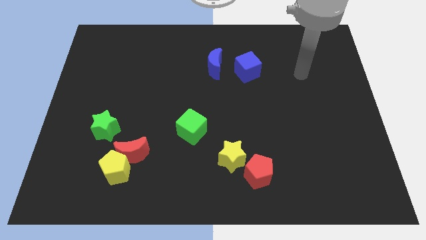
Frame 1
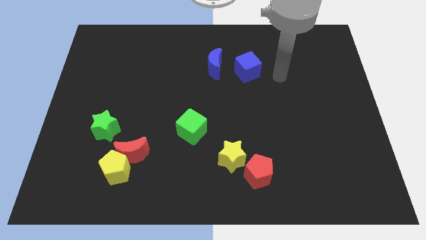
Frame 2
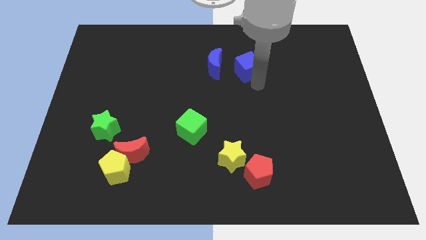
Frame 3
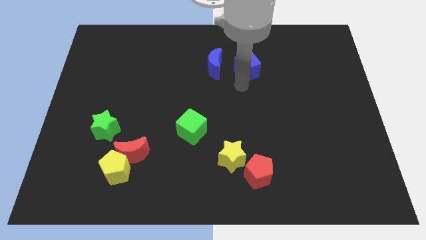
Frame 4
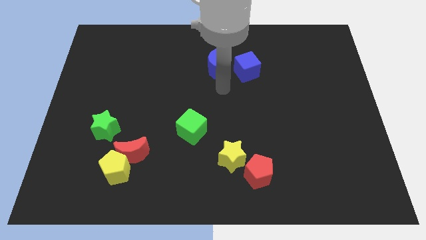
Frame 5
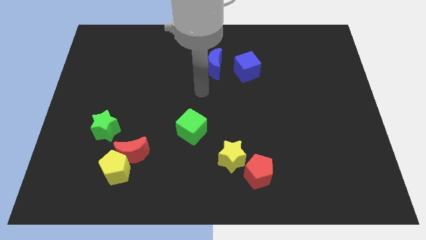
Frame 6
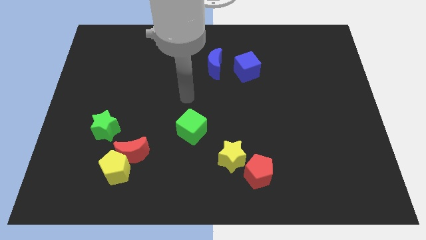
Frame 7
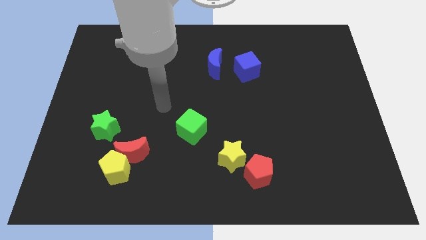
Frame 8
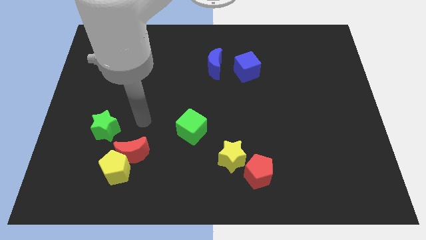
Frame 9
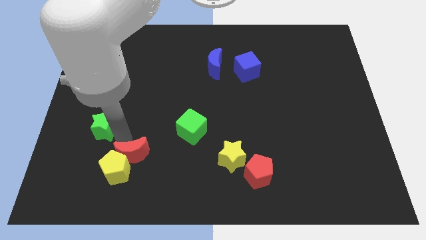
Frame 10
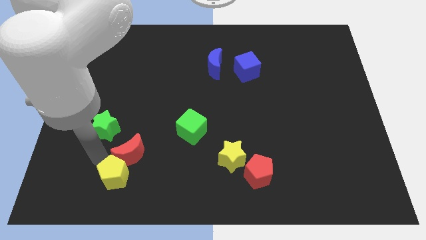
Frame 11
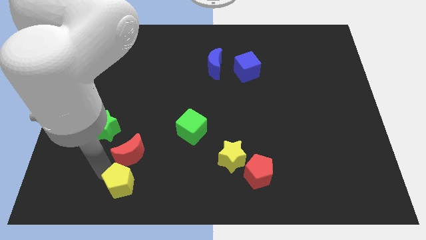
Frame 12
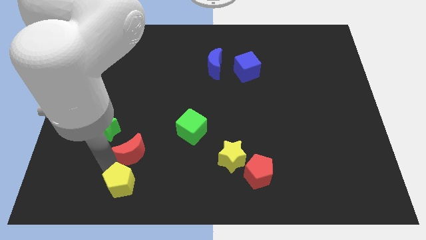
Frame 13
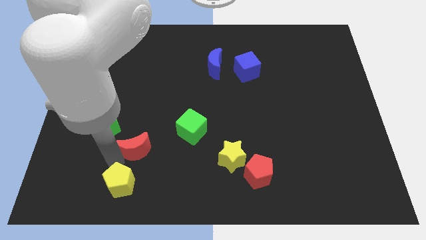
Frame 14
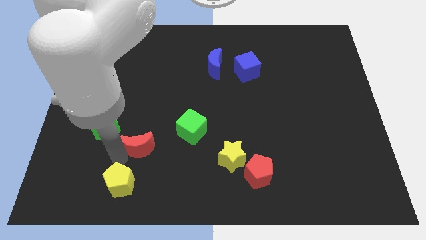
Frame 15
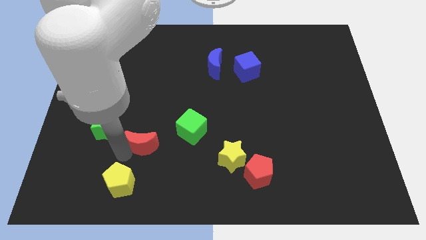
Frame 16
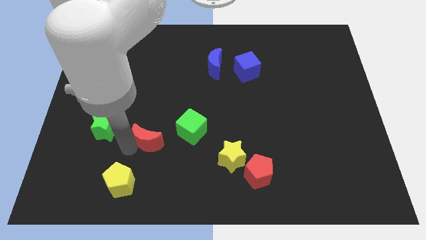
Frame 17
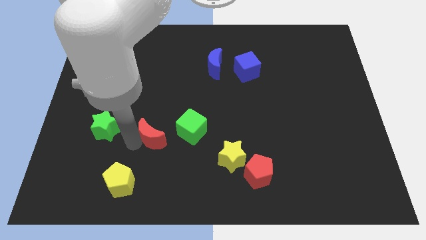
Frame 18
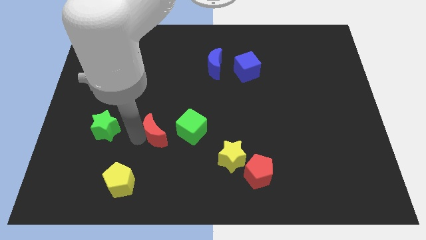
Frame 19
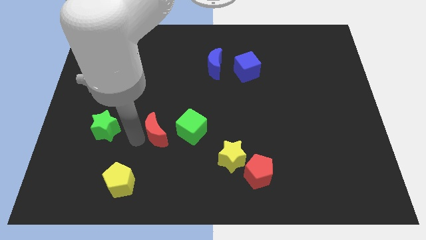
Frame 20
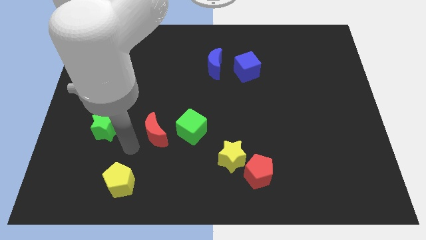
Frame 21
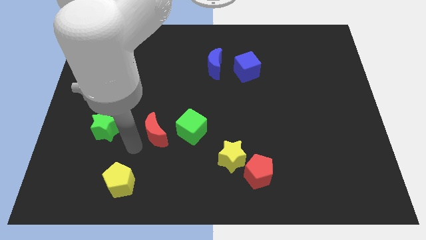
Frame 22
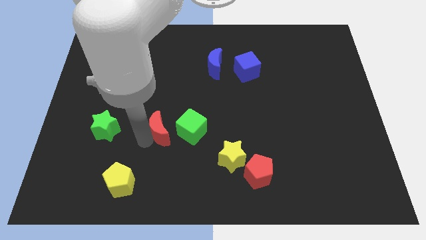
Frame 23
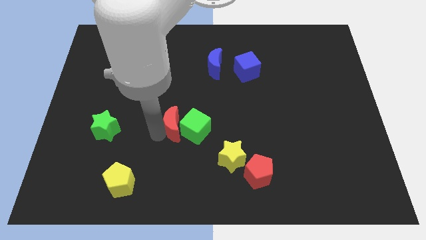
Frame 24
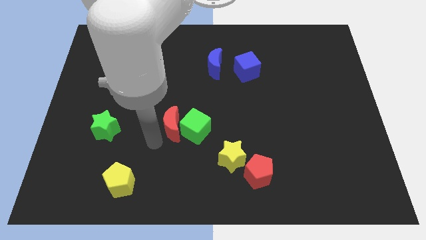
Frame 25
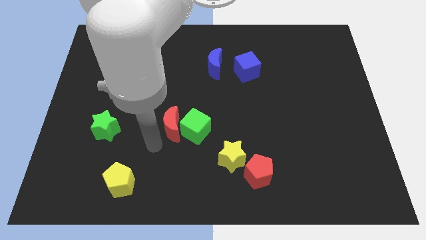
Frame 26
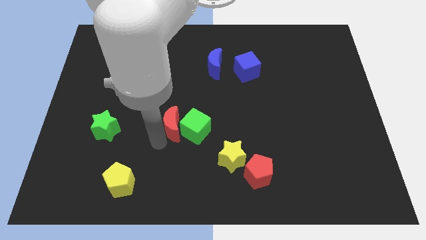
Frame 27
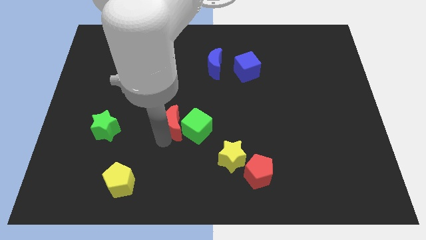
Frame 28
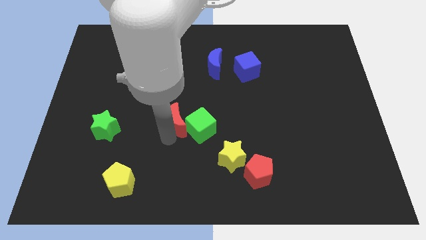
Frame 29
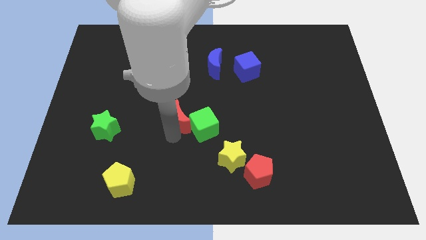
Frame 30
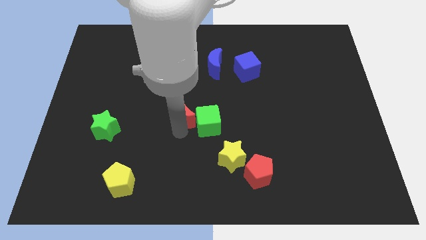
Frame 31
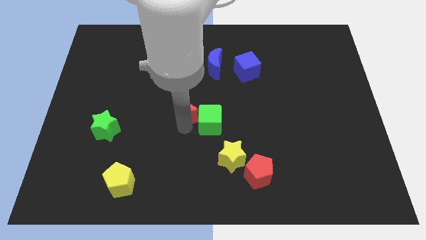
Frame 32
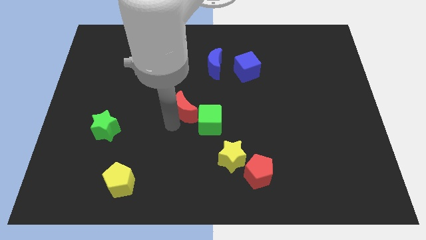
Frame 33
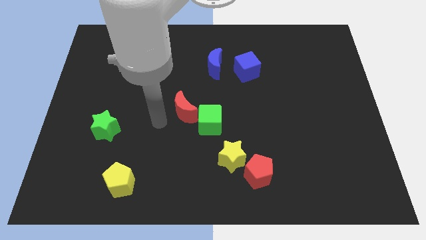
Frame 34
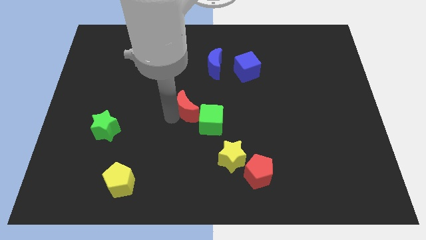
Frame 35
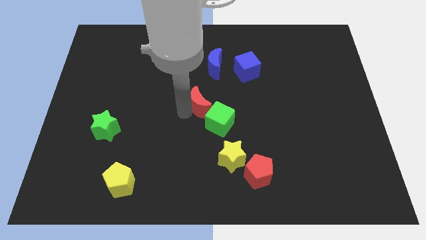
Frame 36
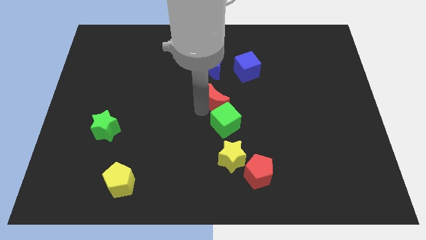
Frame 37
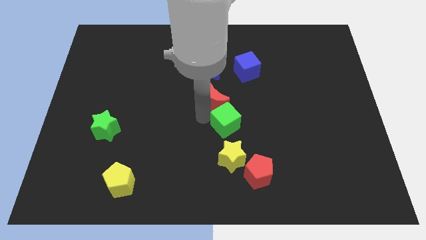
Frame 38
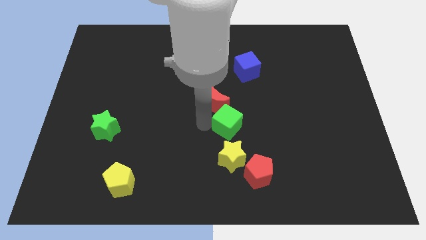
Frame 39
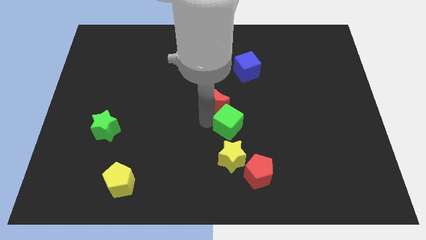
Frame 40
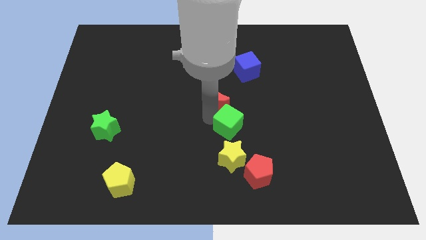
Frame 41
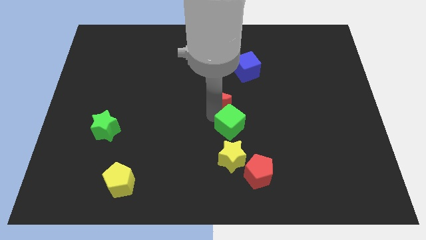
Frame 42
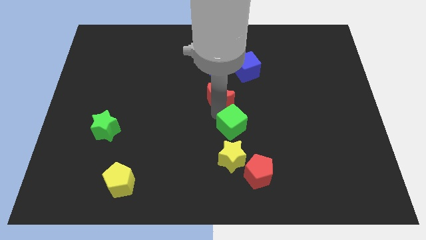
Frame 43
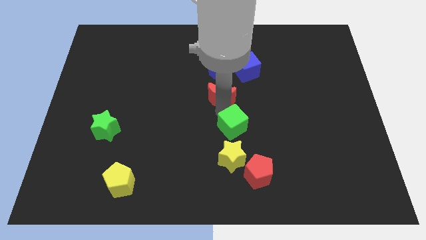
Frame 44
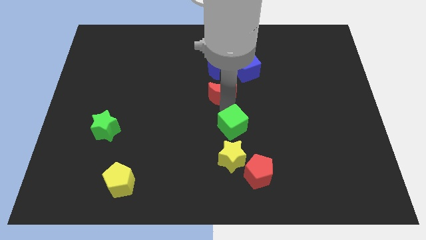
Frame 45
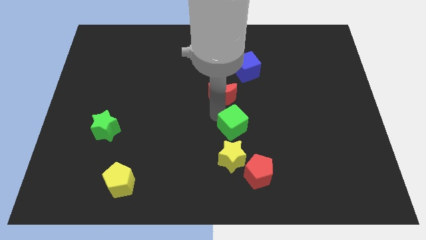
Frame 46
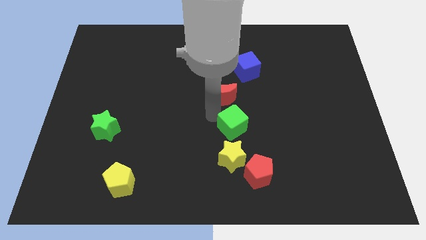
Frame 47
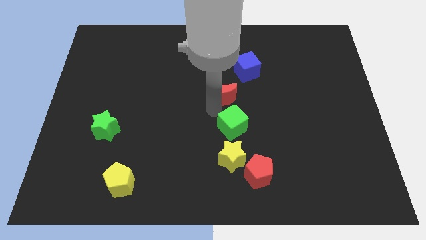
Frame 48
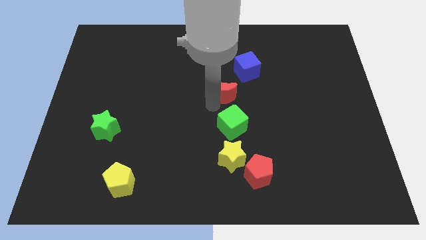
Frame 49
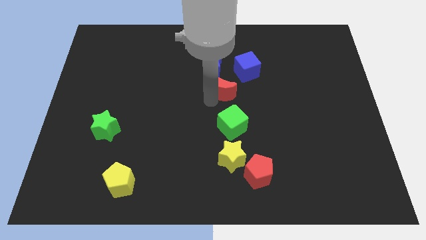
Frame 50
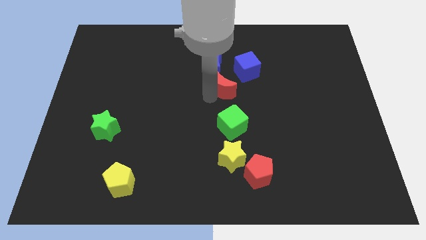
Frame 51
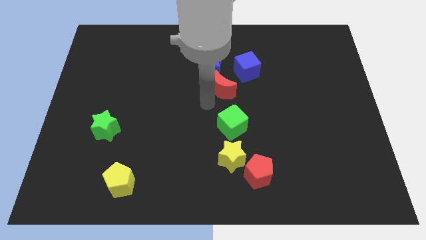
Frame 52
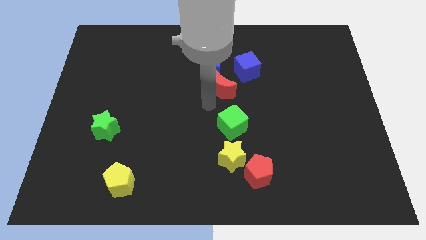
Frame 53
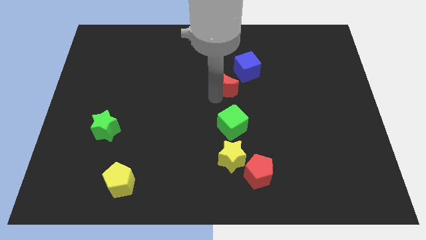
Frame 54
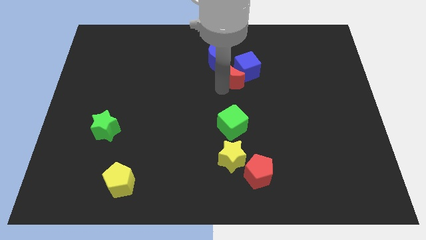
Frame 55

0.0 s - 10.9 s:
put the red moon next to the blue cube

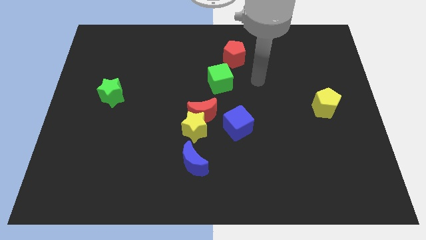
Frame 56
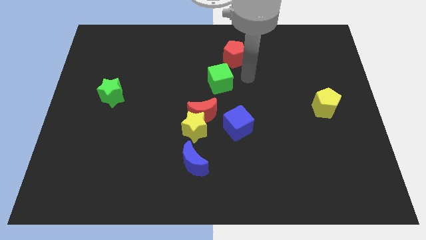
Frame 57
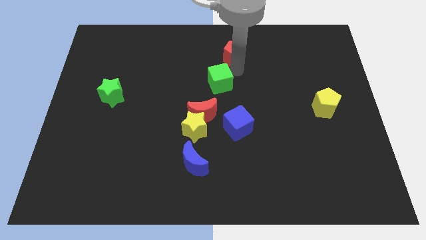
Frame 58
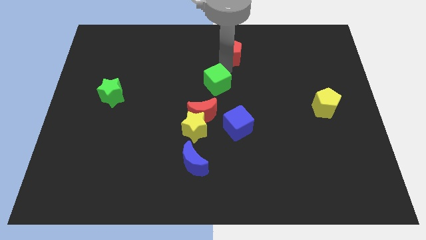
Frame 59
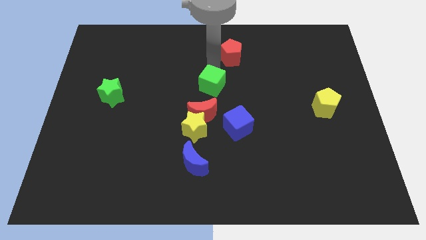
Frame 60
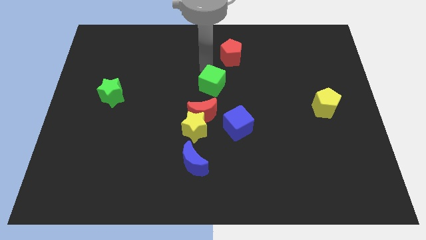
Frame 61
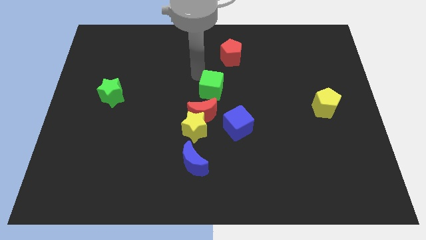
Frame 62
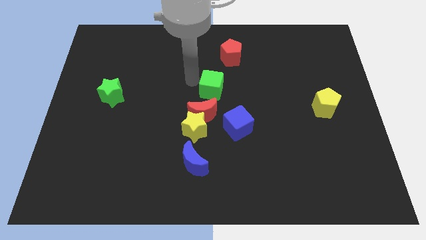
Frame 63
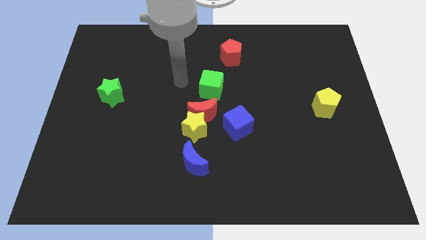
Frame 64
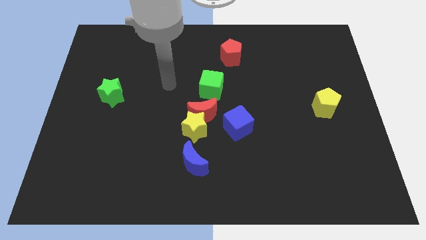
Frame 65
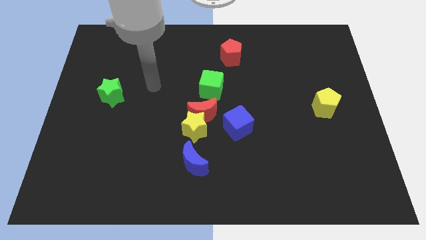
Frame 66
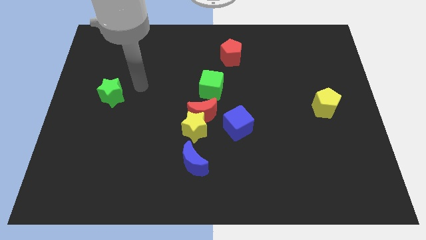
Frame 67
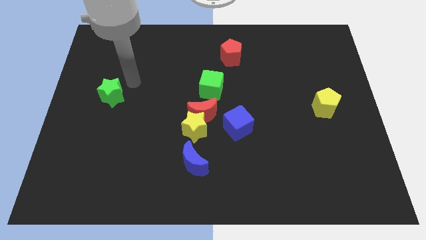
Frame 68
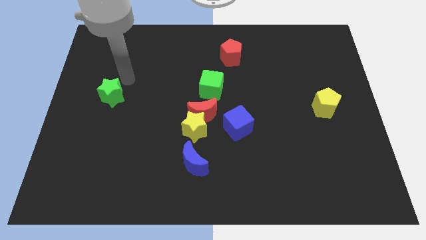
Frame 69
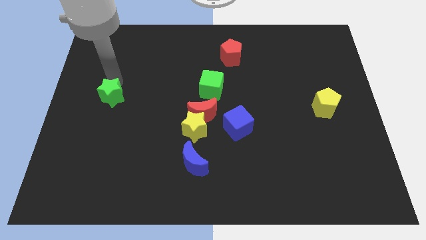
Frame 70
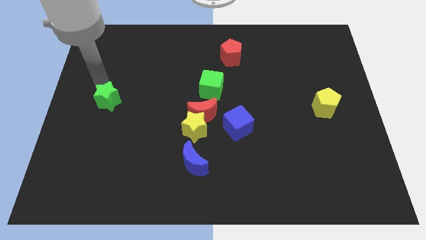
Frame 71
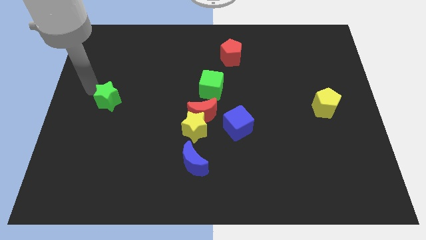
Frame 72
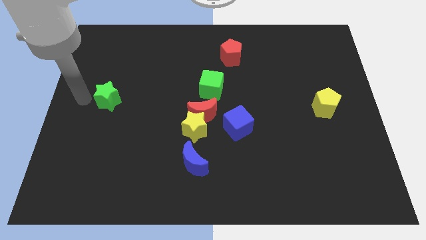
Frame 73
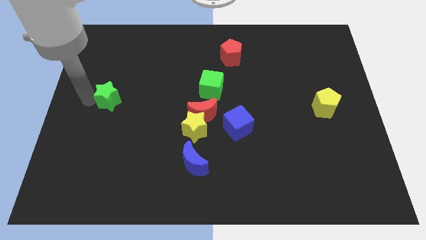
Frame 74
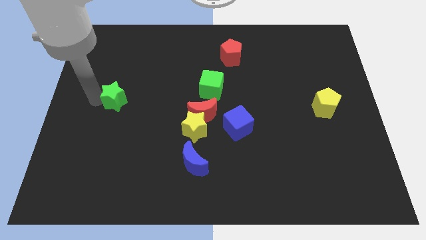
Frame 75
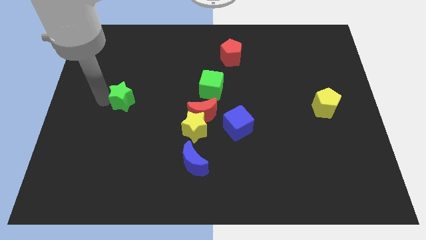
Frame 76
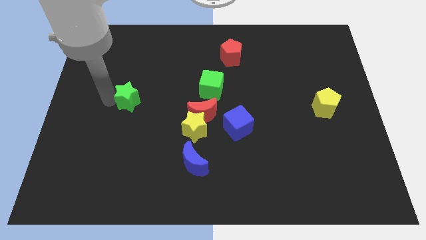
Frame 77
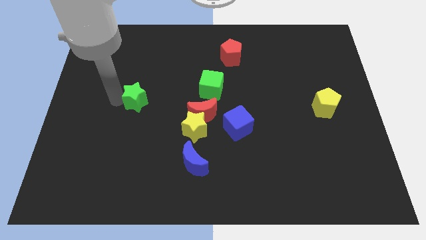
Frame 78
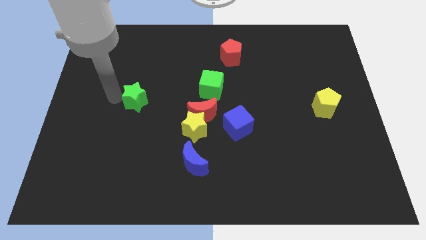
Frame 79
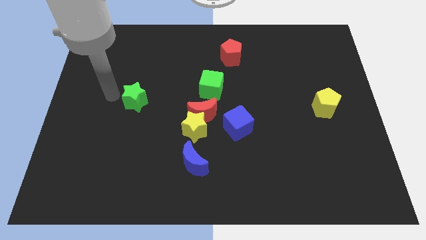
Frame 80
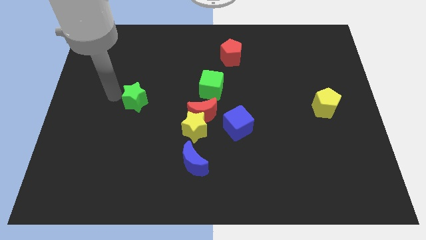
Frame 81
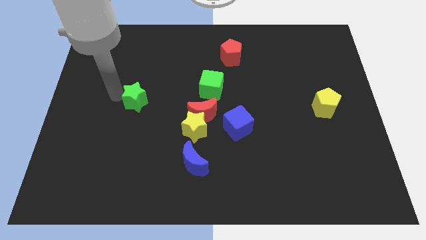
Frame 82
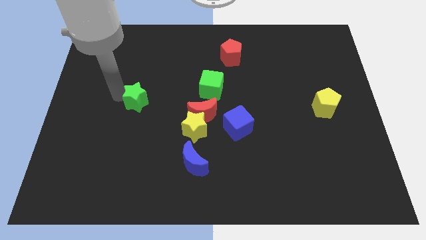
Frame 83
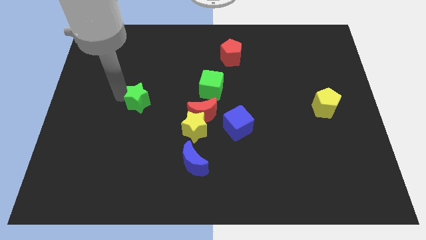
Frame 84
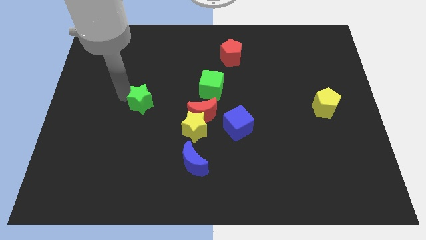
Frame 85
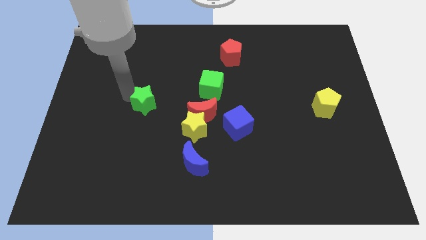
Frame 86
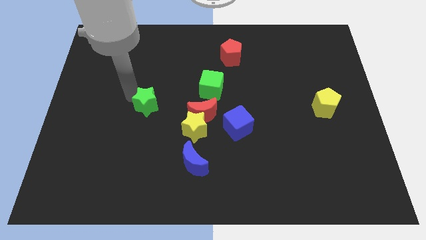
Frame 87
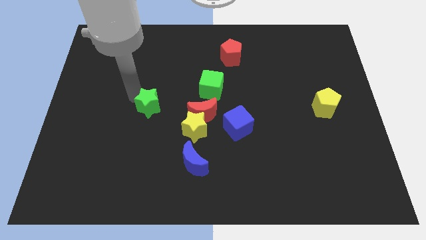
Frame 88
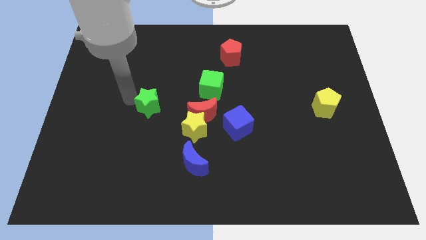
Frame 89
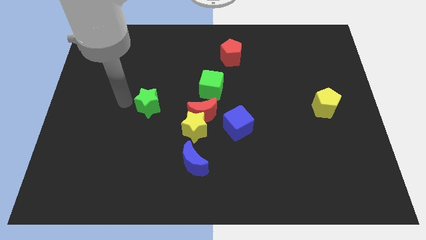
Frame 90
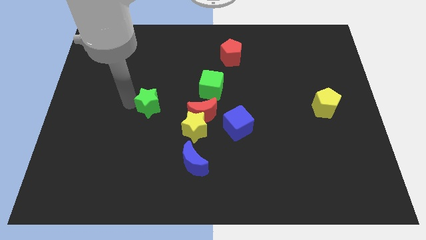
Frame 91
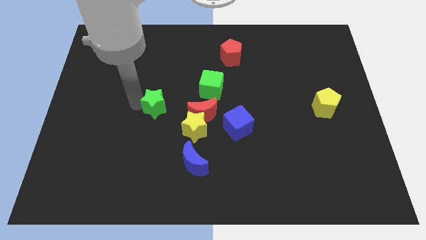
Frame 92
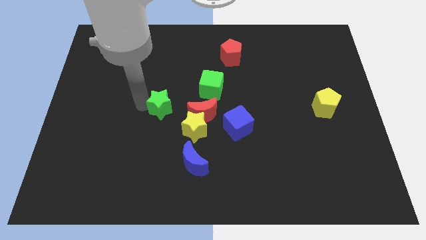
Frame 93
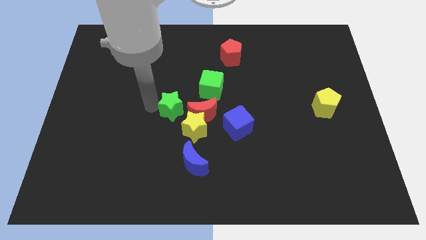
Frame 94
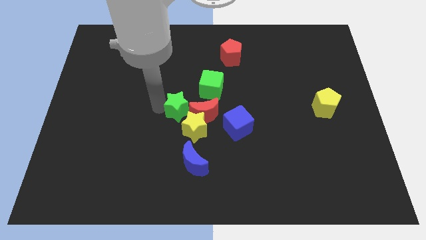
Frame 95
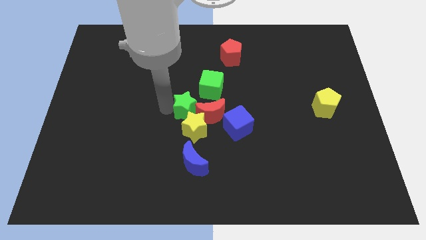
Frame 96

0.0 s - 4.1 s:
put the green star close to the red moon
